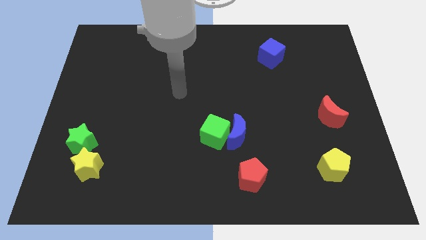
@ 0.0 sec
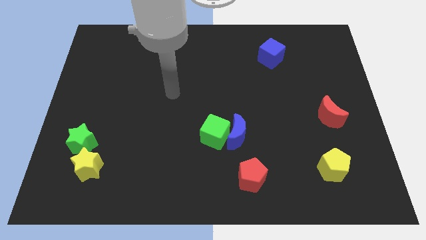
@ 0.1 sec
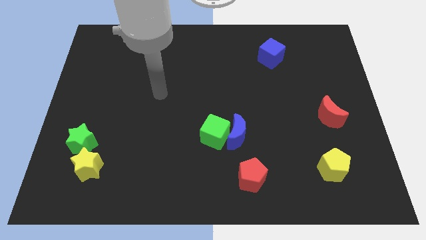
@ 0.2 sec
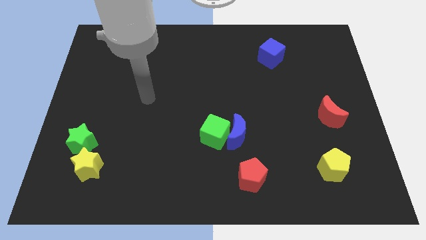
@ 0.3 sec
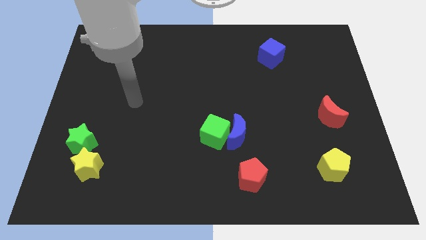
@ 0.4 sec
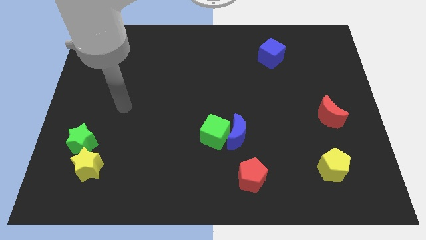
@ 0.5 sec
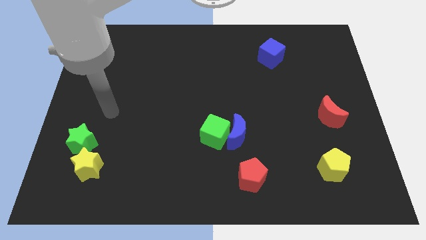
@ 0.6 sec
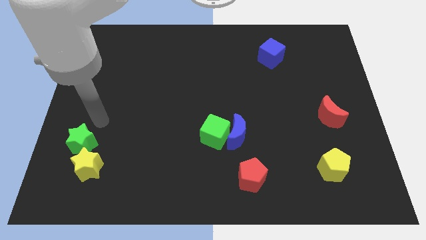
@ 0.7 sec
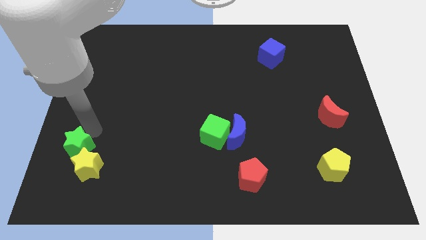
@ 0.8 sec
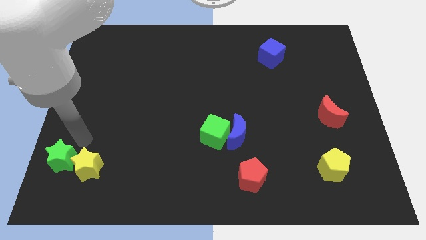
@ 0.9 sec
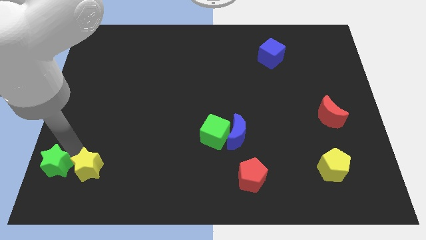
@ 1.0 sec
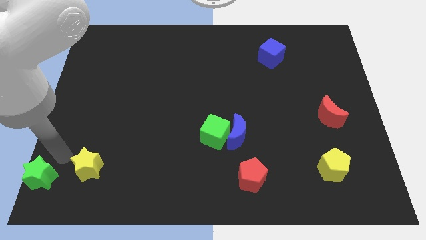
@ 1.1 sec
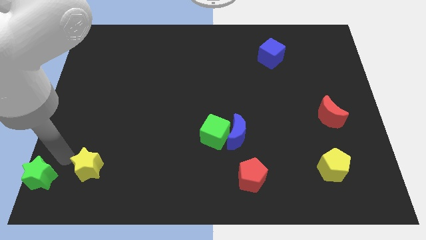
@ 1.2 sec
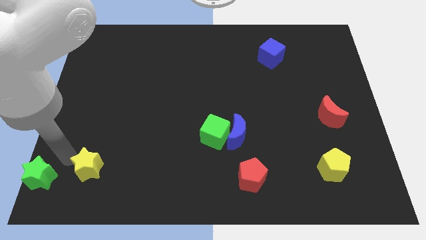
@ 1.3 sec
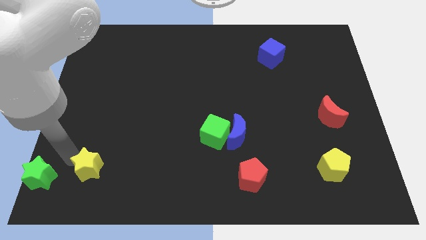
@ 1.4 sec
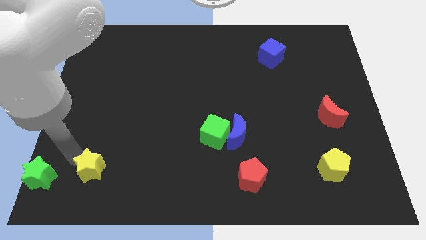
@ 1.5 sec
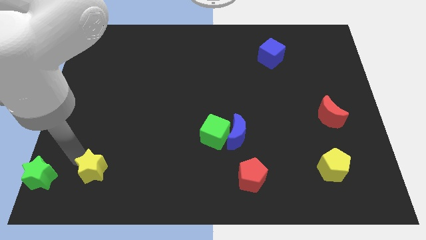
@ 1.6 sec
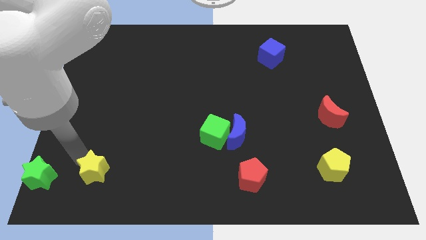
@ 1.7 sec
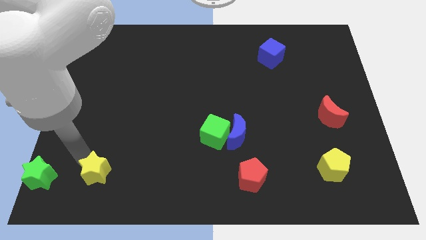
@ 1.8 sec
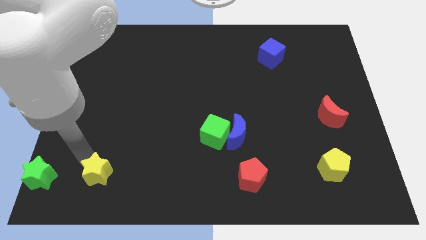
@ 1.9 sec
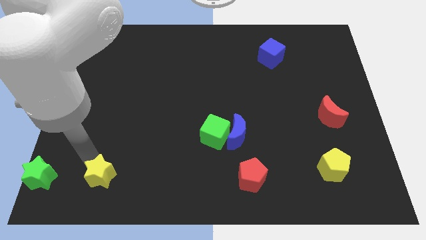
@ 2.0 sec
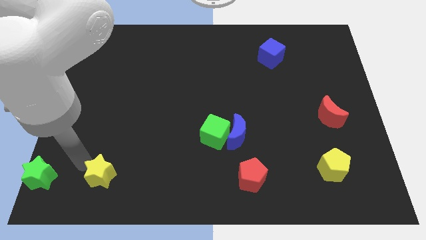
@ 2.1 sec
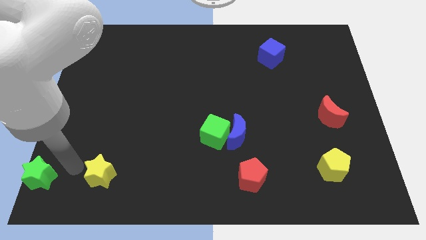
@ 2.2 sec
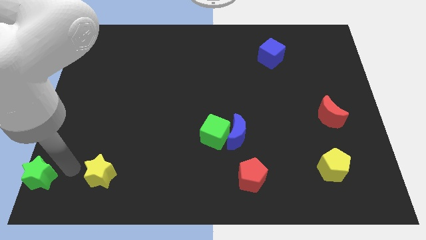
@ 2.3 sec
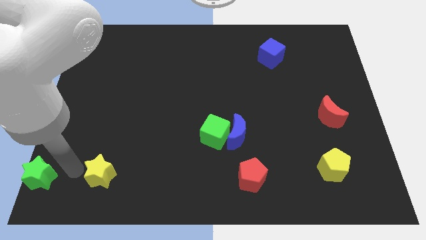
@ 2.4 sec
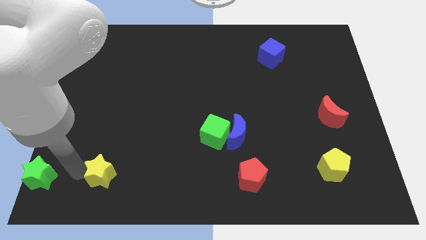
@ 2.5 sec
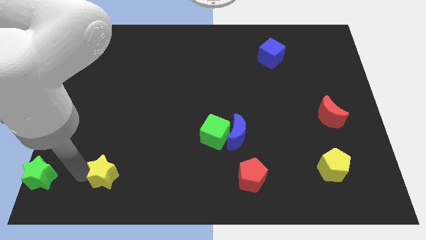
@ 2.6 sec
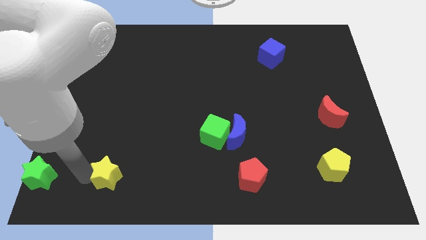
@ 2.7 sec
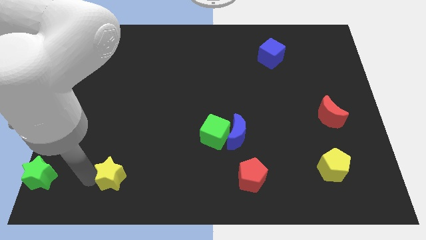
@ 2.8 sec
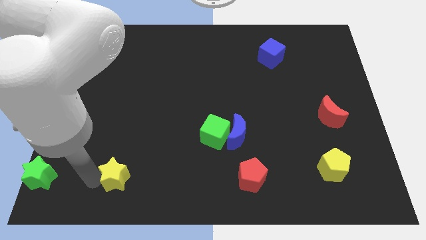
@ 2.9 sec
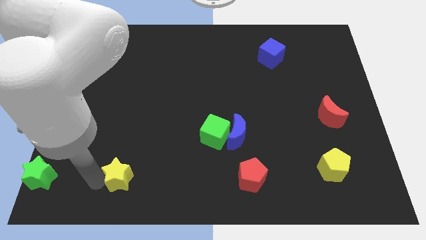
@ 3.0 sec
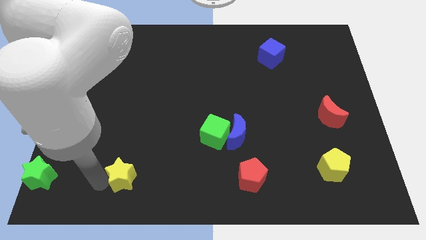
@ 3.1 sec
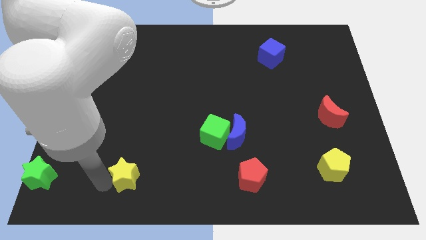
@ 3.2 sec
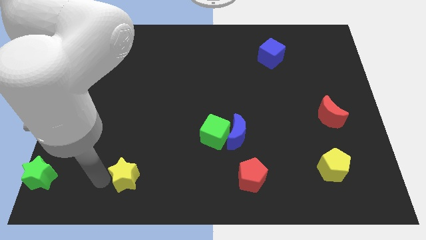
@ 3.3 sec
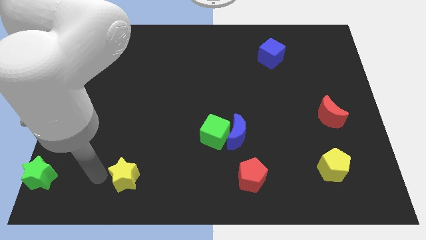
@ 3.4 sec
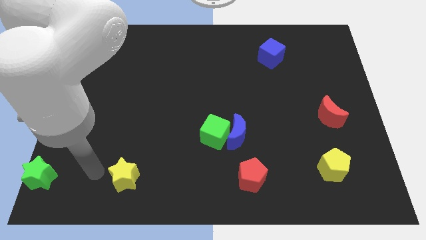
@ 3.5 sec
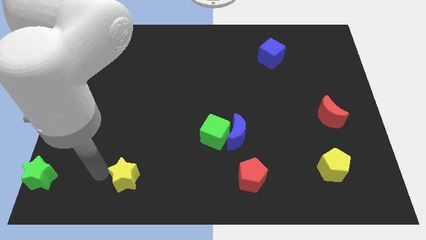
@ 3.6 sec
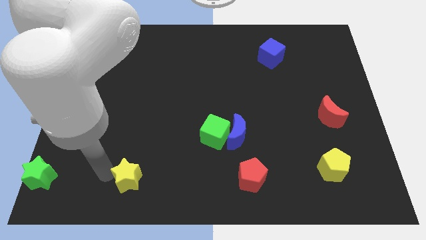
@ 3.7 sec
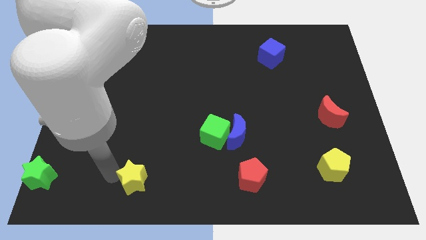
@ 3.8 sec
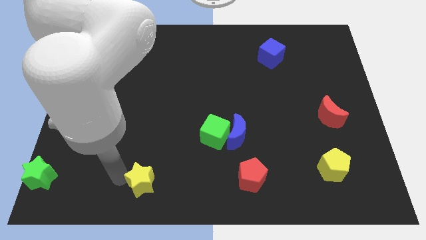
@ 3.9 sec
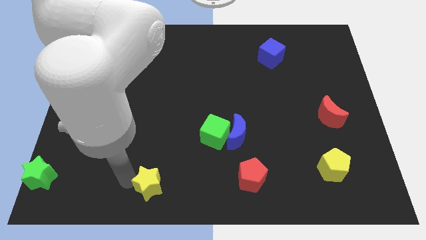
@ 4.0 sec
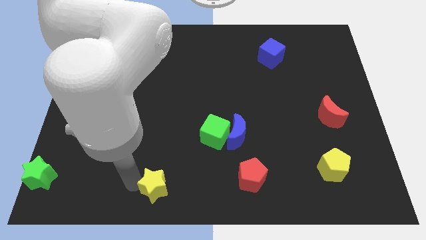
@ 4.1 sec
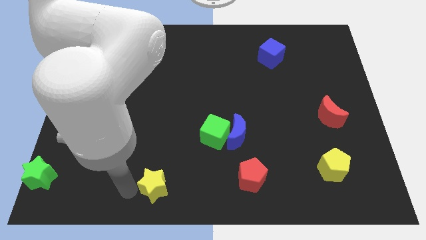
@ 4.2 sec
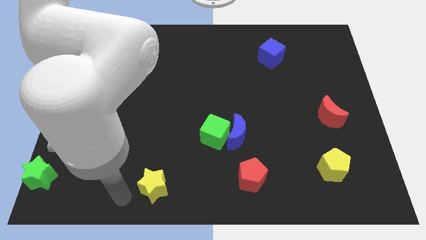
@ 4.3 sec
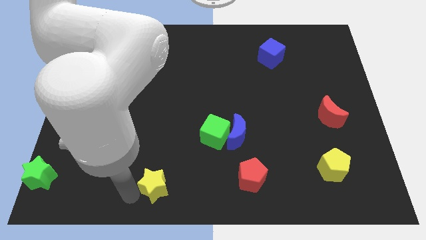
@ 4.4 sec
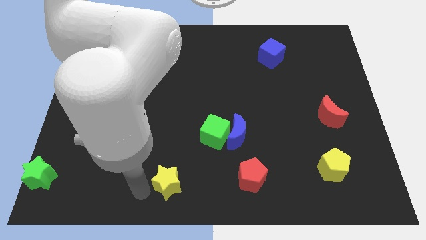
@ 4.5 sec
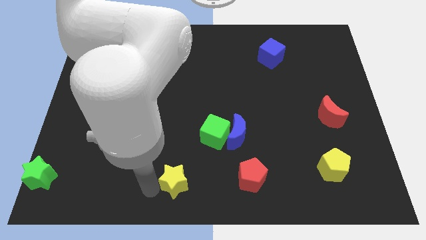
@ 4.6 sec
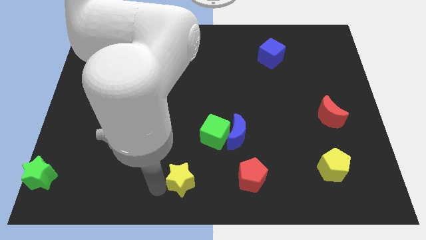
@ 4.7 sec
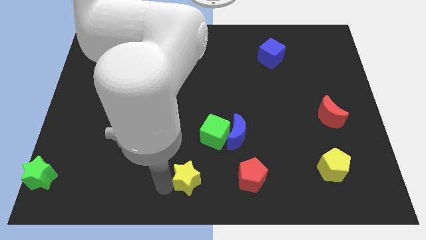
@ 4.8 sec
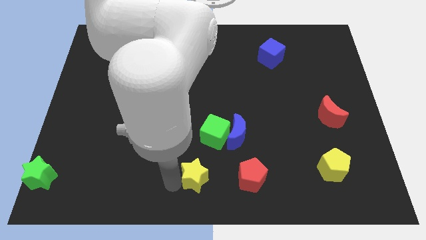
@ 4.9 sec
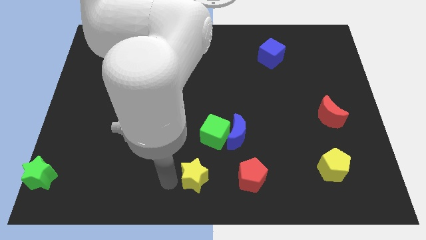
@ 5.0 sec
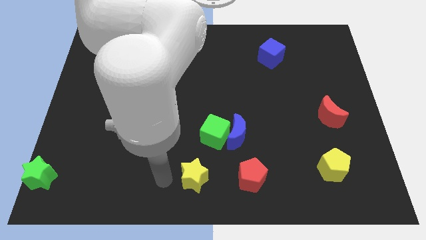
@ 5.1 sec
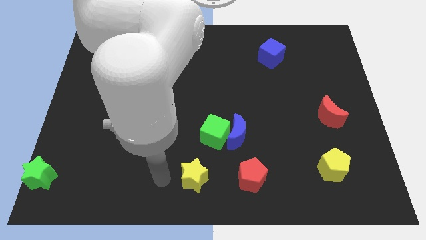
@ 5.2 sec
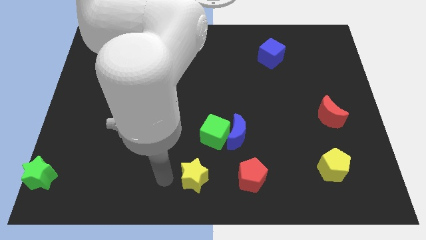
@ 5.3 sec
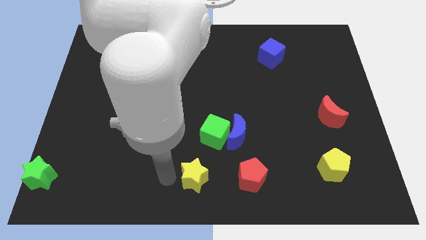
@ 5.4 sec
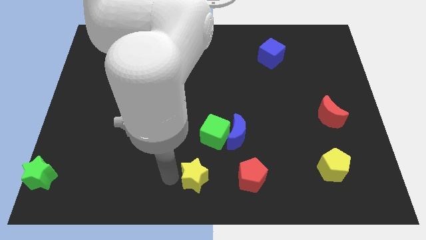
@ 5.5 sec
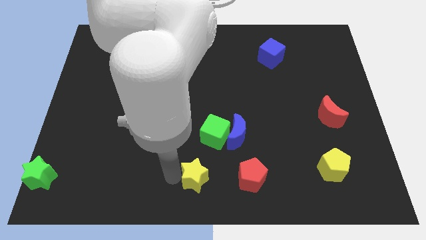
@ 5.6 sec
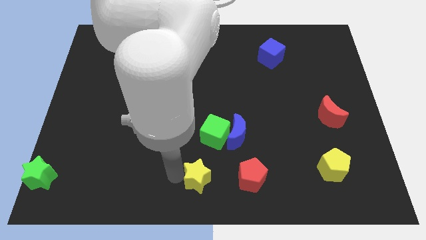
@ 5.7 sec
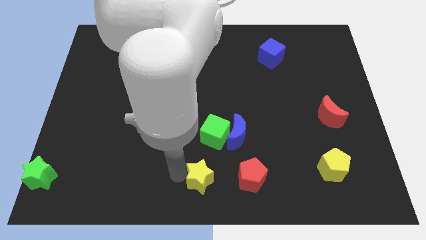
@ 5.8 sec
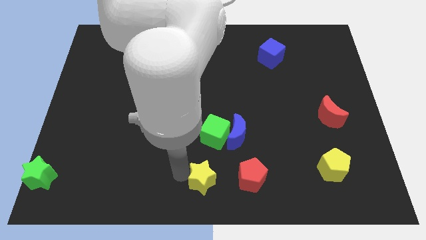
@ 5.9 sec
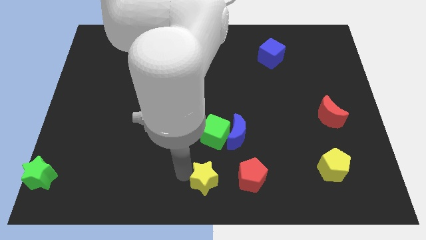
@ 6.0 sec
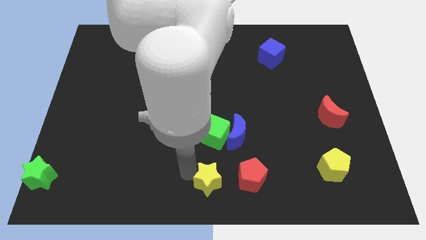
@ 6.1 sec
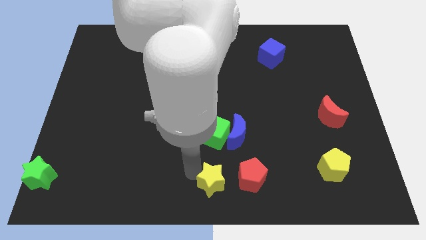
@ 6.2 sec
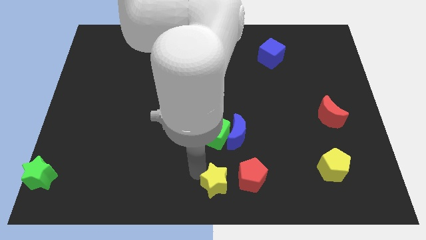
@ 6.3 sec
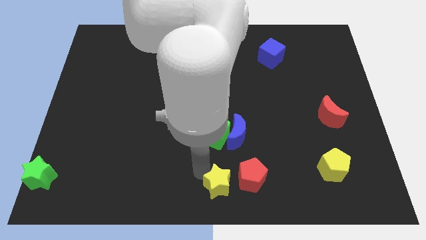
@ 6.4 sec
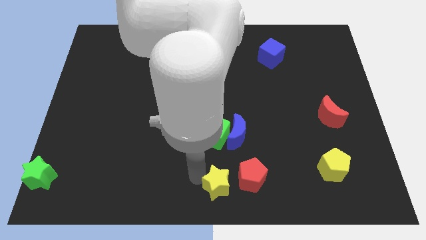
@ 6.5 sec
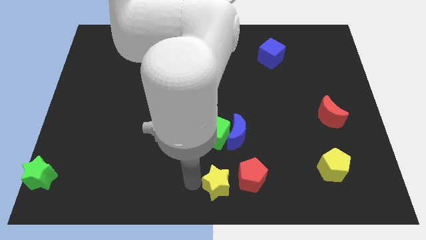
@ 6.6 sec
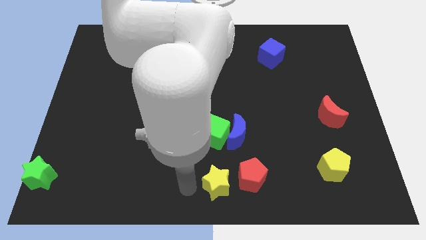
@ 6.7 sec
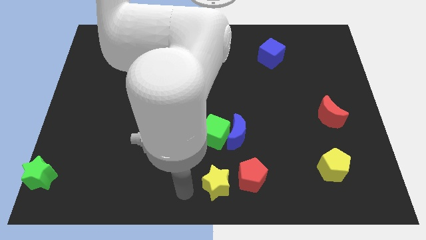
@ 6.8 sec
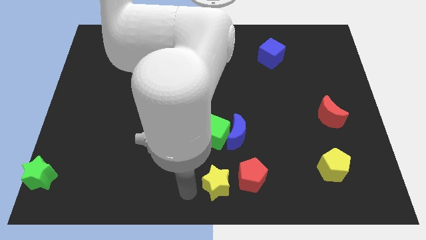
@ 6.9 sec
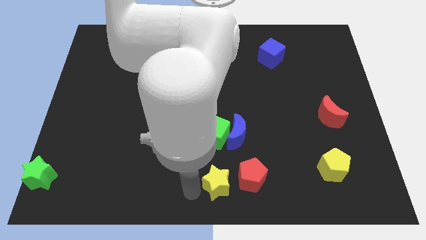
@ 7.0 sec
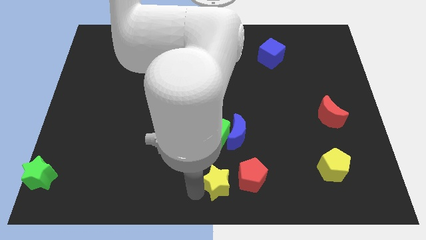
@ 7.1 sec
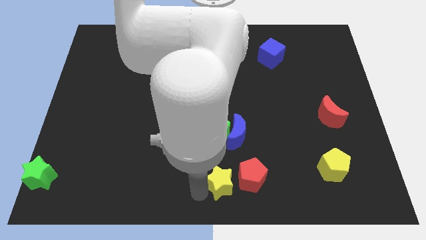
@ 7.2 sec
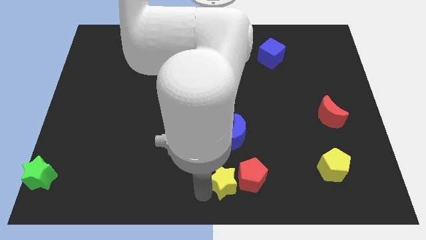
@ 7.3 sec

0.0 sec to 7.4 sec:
slide the yellow star to the red pentagon
